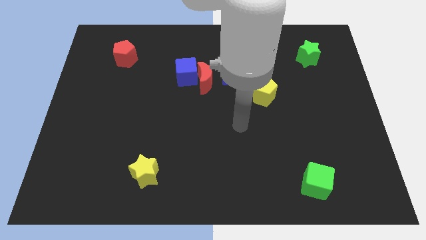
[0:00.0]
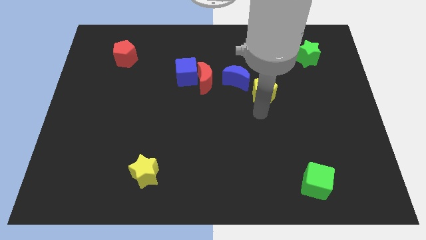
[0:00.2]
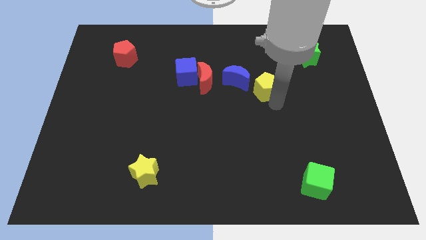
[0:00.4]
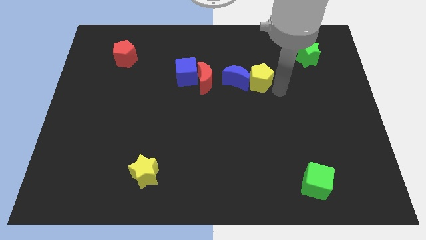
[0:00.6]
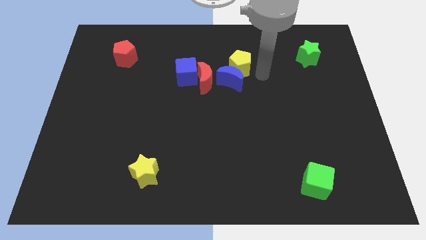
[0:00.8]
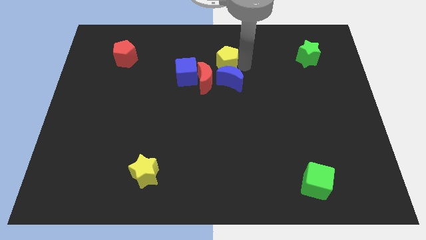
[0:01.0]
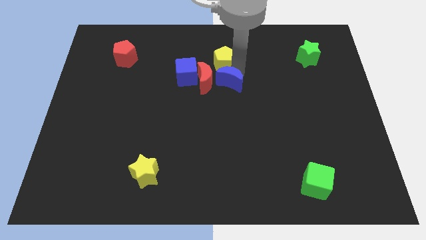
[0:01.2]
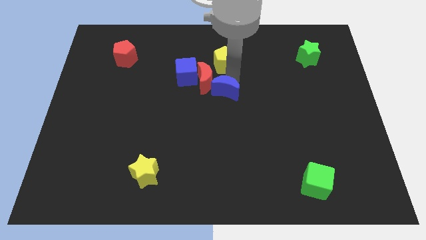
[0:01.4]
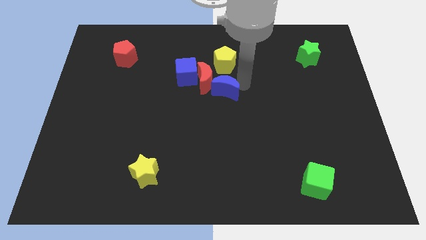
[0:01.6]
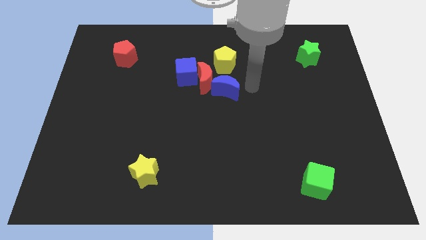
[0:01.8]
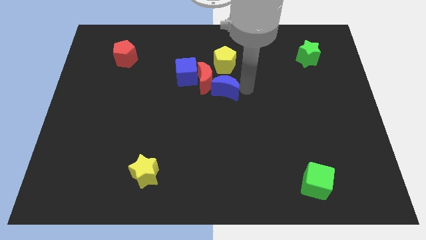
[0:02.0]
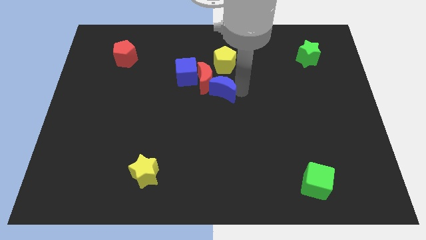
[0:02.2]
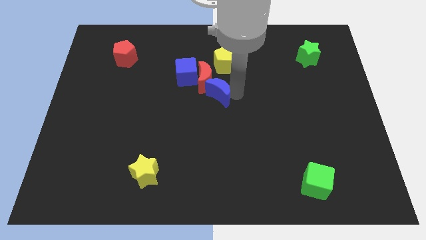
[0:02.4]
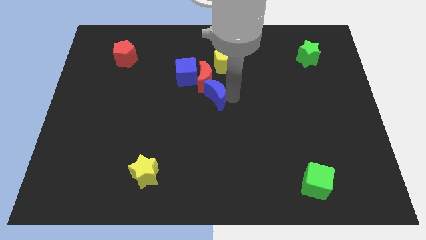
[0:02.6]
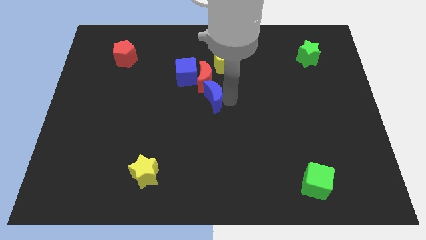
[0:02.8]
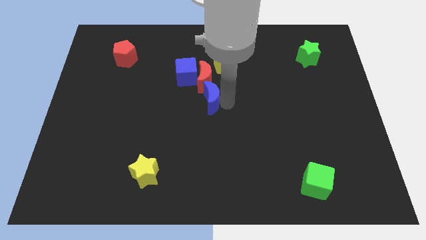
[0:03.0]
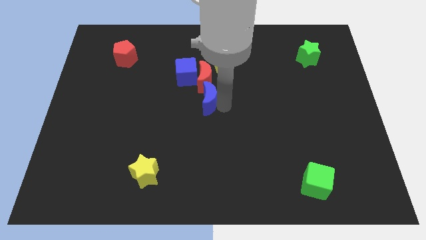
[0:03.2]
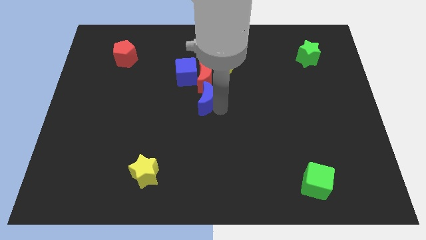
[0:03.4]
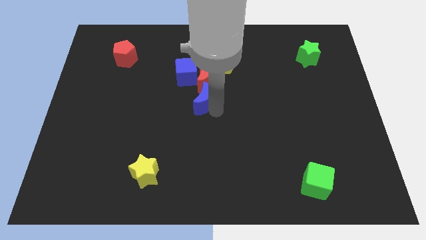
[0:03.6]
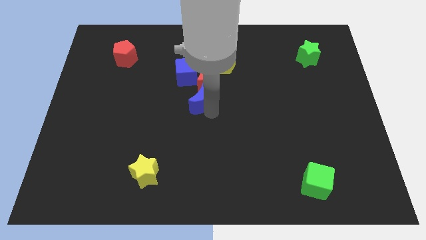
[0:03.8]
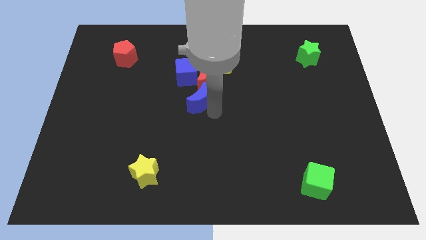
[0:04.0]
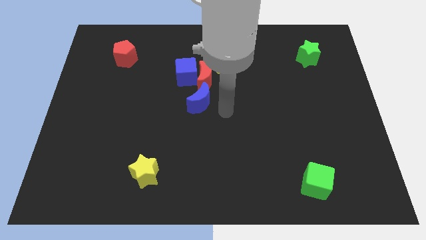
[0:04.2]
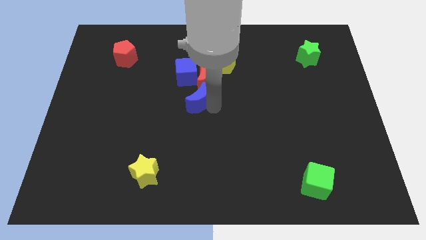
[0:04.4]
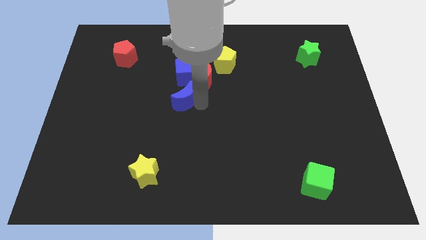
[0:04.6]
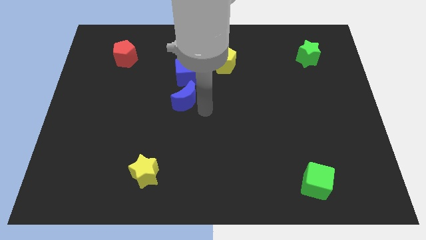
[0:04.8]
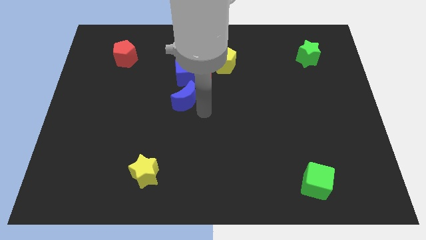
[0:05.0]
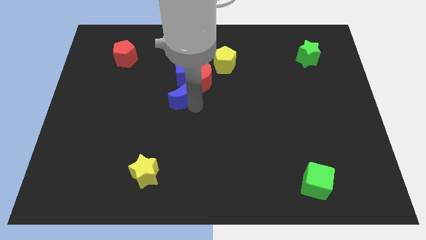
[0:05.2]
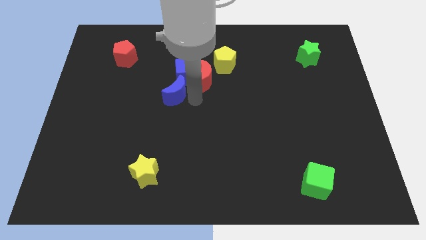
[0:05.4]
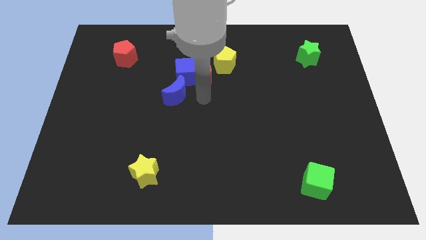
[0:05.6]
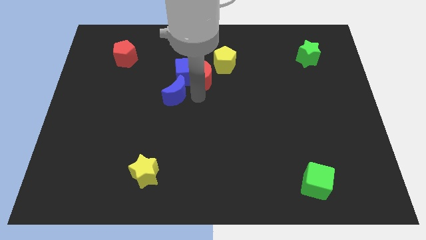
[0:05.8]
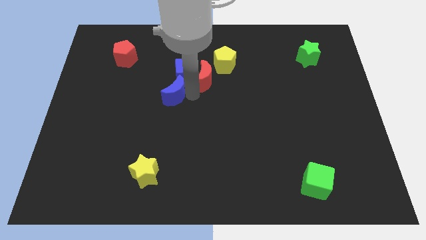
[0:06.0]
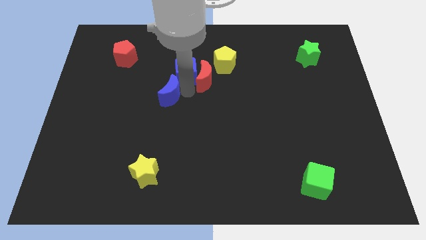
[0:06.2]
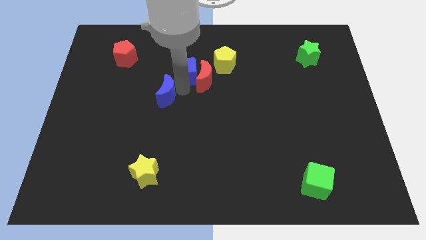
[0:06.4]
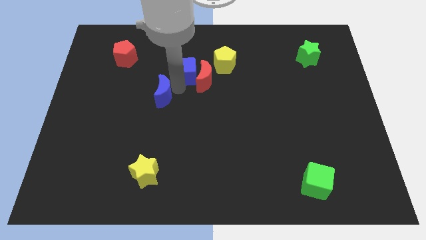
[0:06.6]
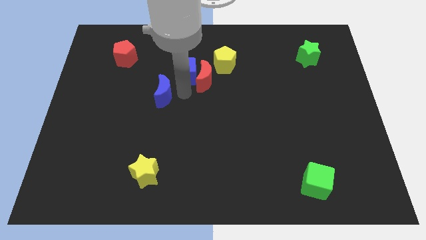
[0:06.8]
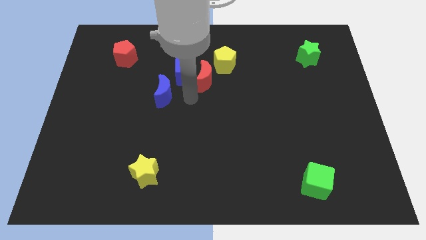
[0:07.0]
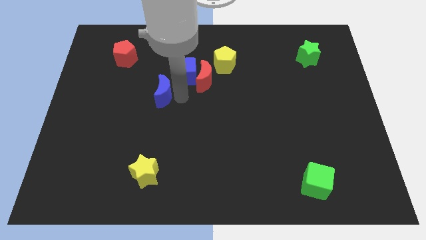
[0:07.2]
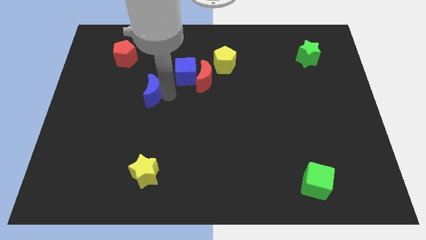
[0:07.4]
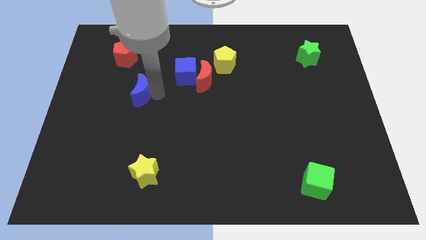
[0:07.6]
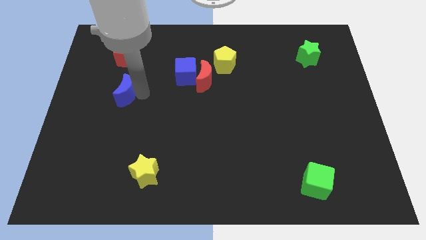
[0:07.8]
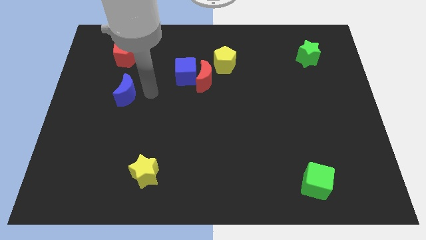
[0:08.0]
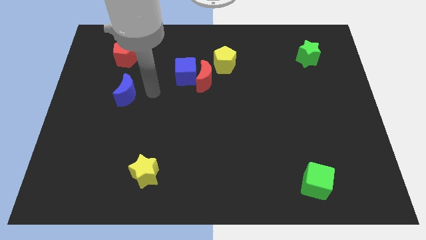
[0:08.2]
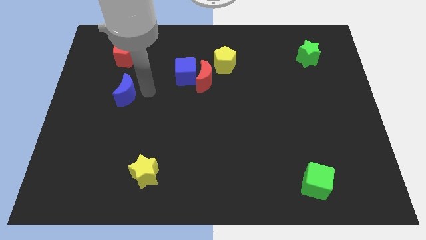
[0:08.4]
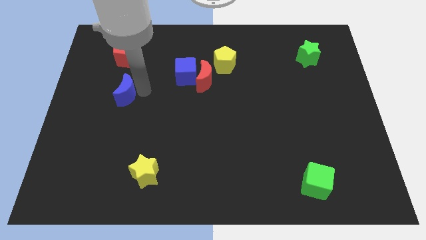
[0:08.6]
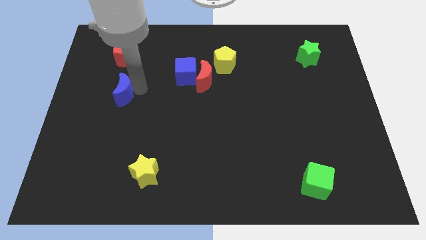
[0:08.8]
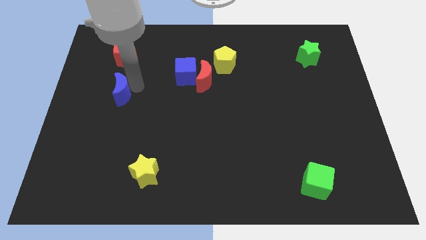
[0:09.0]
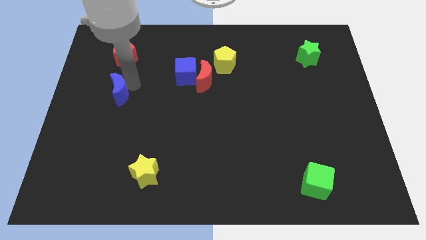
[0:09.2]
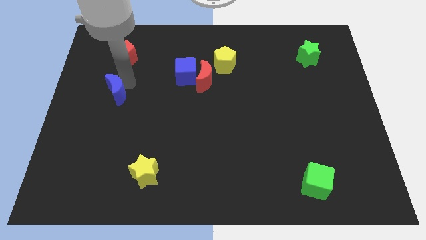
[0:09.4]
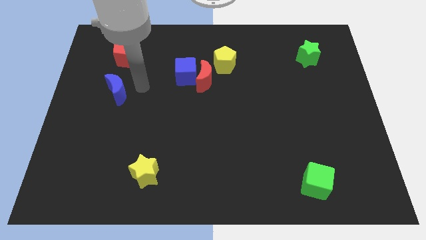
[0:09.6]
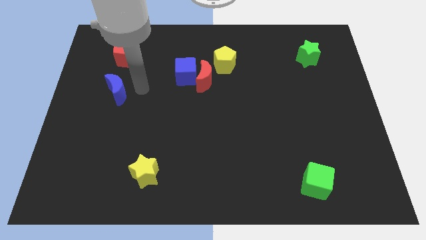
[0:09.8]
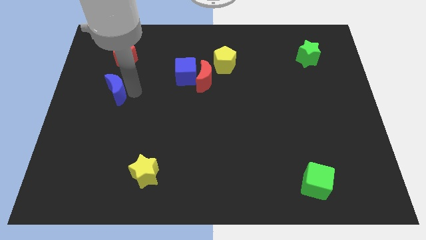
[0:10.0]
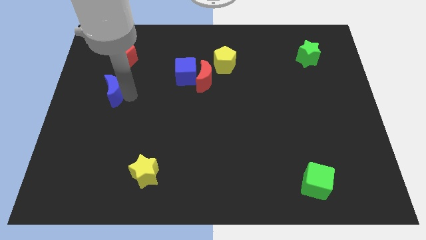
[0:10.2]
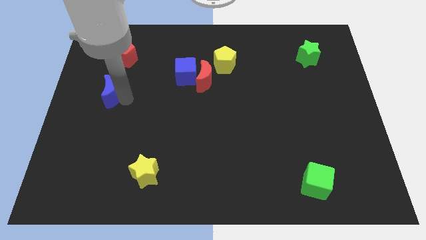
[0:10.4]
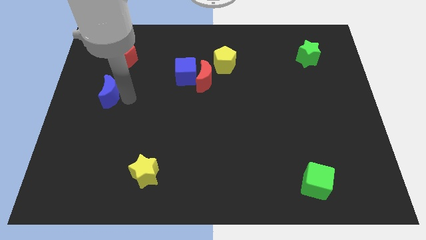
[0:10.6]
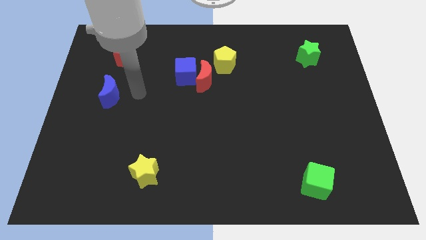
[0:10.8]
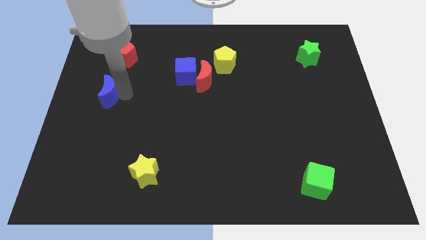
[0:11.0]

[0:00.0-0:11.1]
move the blue moon to the left side of the board

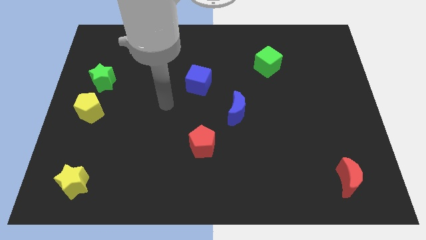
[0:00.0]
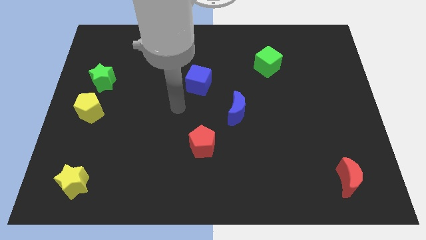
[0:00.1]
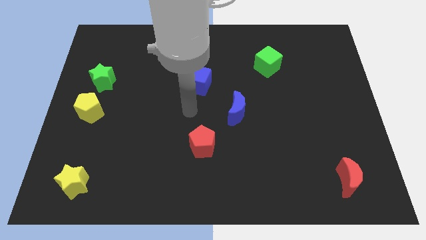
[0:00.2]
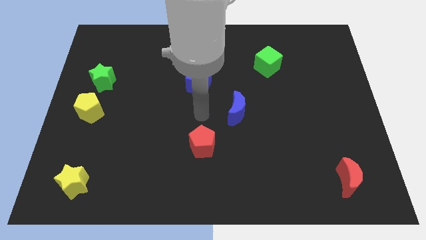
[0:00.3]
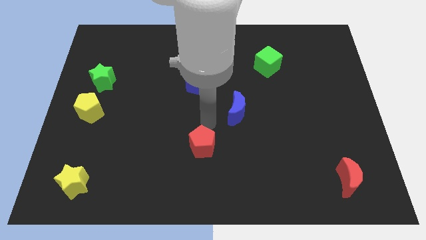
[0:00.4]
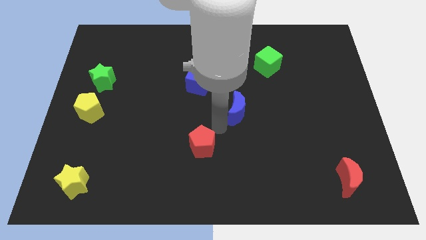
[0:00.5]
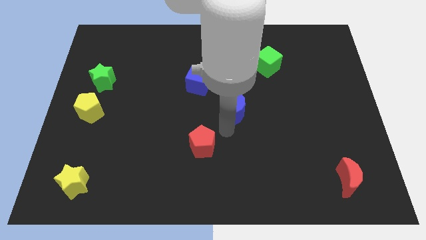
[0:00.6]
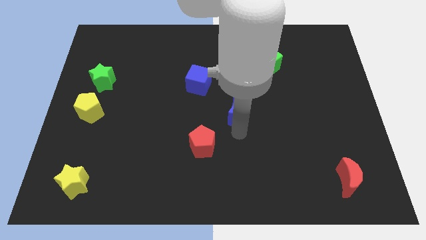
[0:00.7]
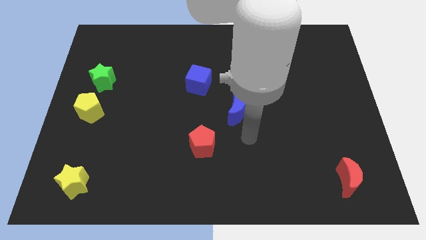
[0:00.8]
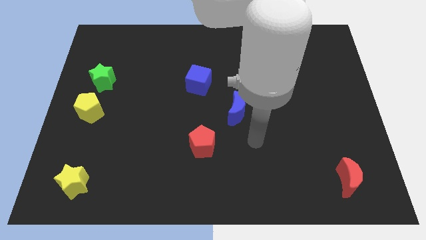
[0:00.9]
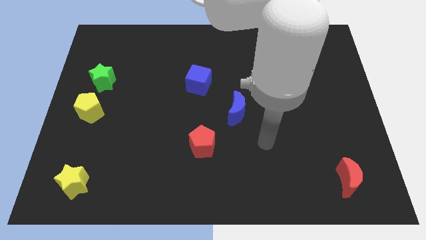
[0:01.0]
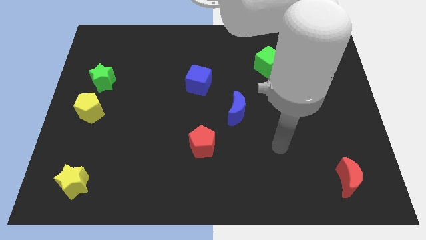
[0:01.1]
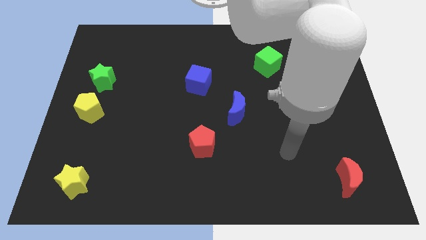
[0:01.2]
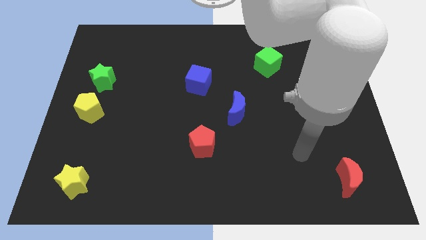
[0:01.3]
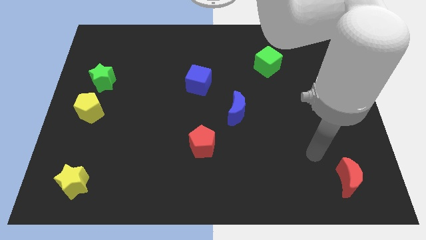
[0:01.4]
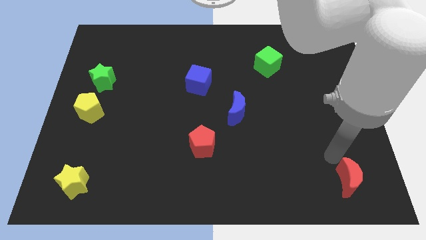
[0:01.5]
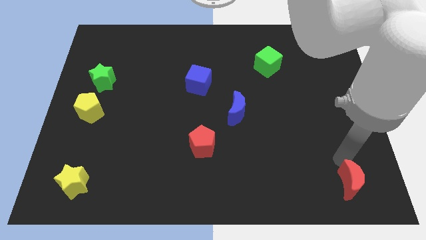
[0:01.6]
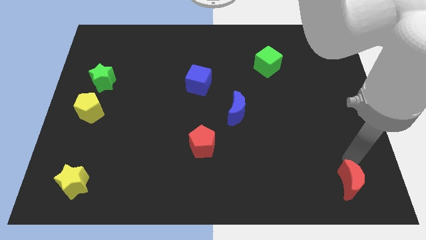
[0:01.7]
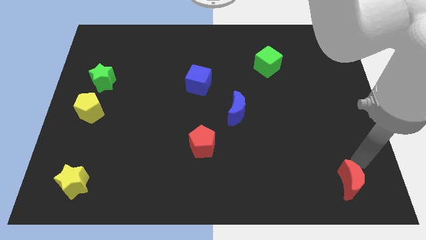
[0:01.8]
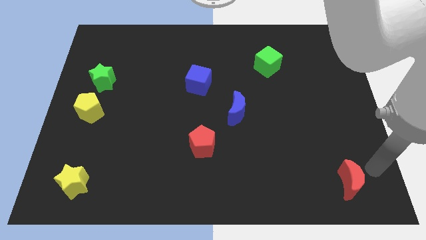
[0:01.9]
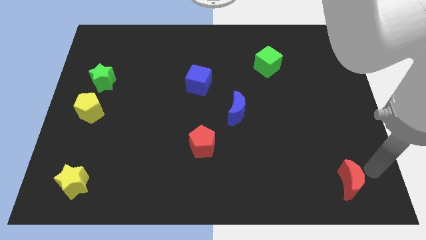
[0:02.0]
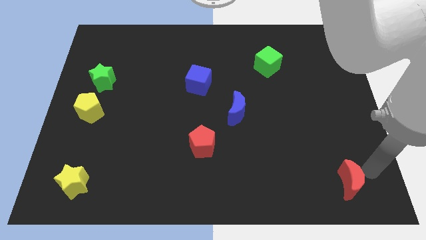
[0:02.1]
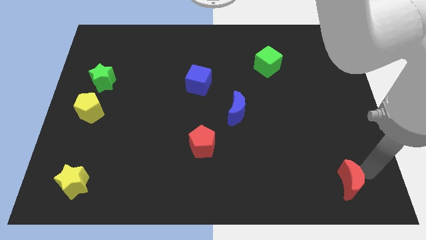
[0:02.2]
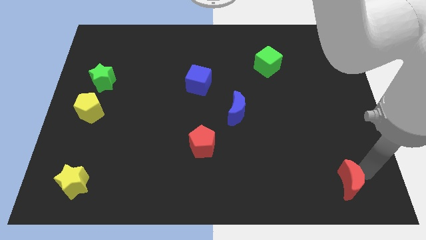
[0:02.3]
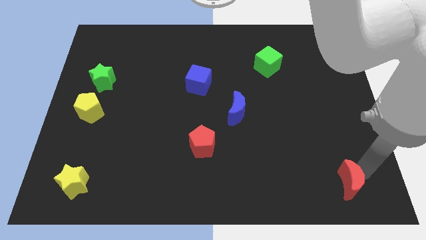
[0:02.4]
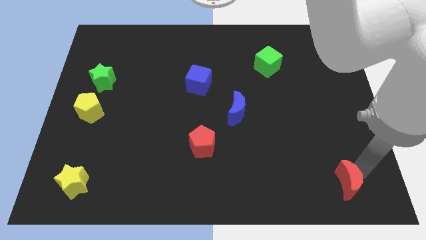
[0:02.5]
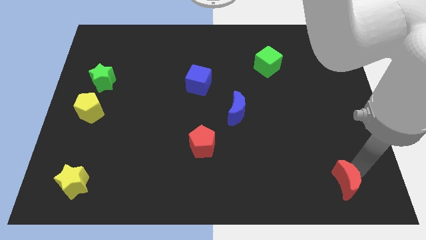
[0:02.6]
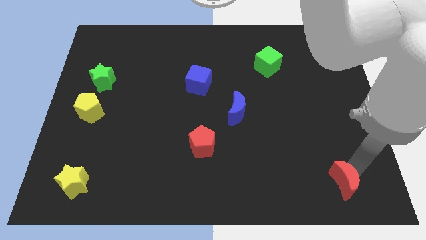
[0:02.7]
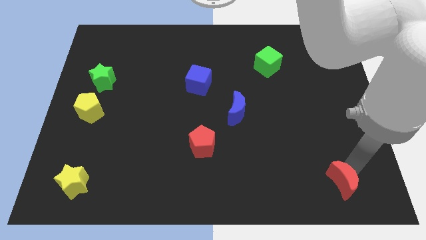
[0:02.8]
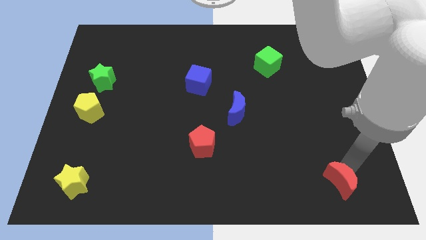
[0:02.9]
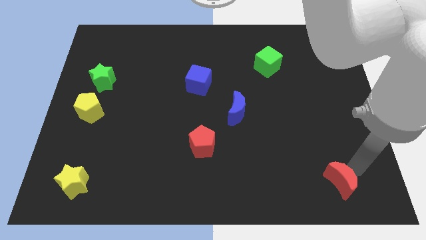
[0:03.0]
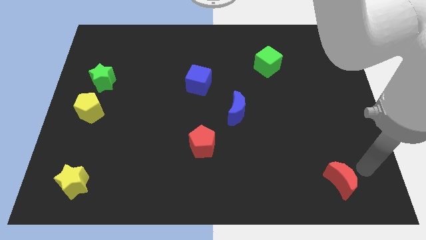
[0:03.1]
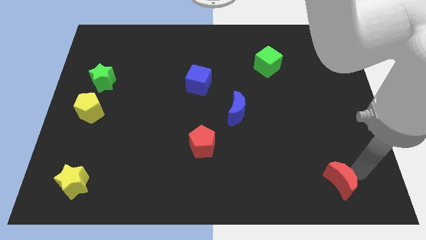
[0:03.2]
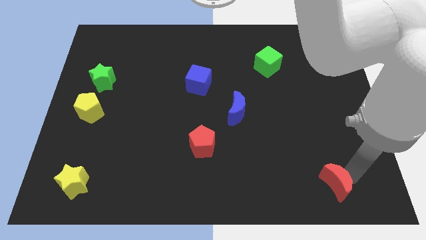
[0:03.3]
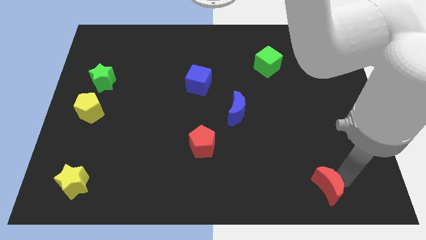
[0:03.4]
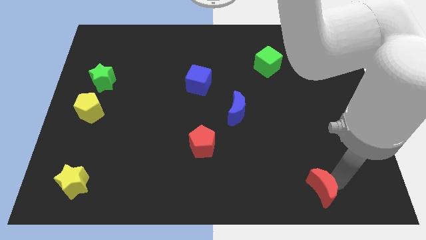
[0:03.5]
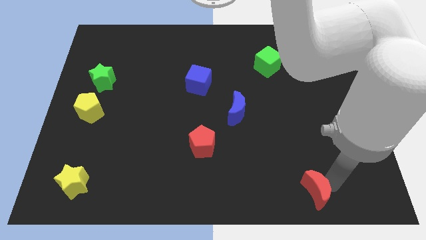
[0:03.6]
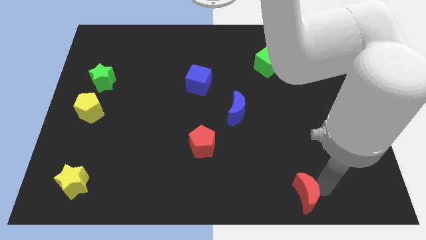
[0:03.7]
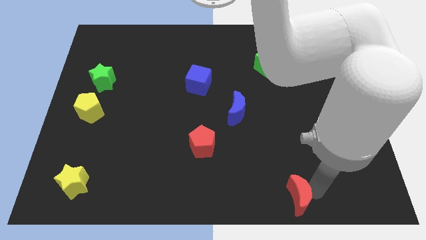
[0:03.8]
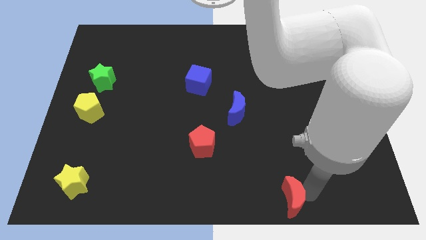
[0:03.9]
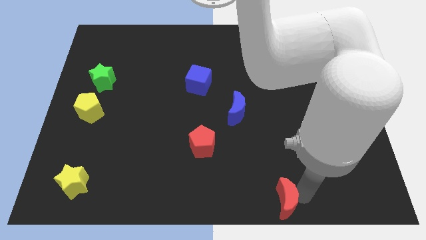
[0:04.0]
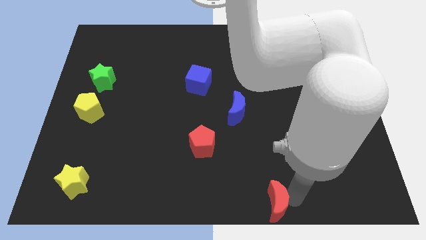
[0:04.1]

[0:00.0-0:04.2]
move the red moon to the bottom
